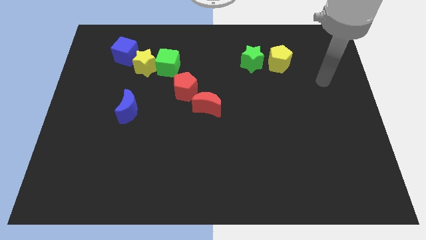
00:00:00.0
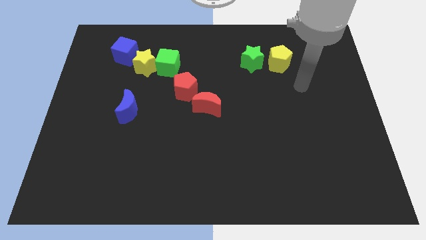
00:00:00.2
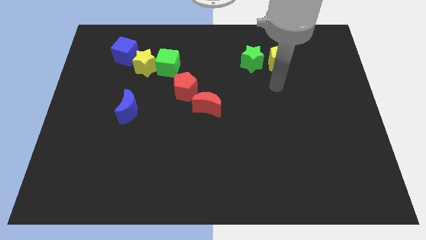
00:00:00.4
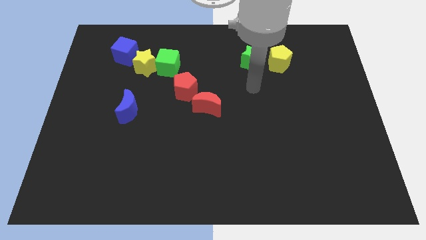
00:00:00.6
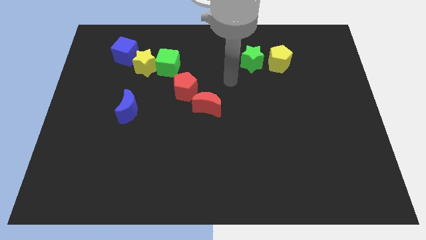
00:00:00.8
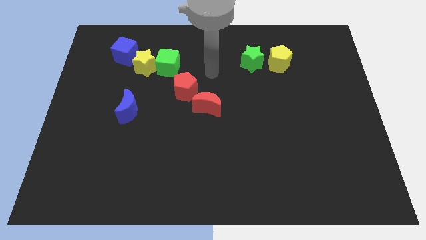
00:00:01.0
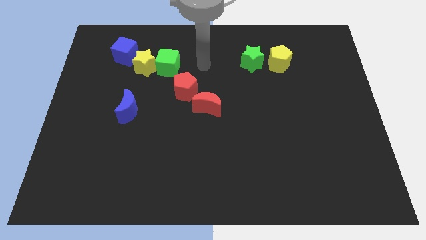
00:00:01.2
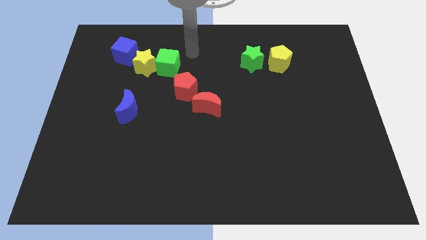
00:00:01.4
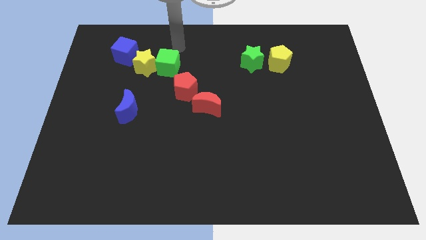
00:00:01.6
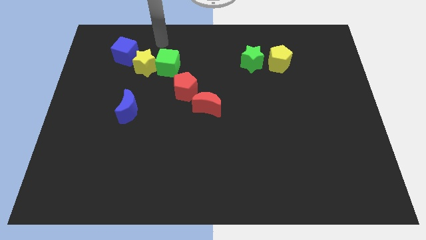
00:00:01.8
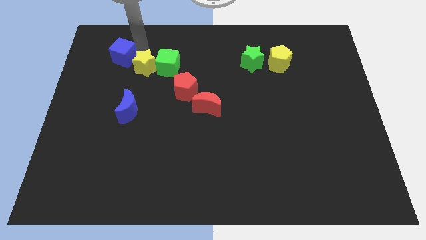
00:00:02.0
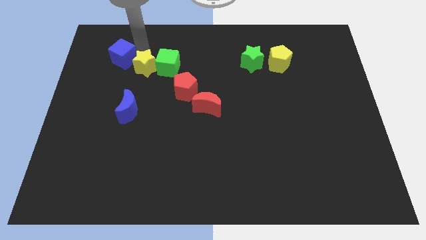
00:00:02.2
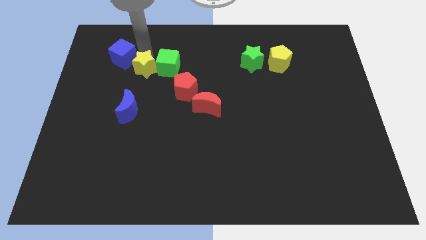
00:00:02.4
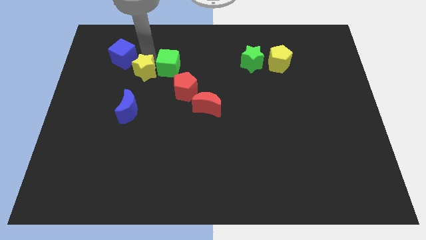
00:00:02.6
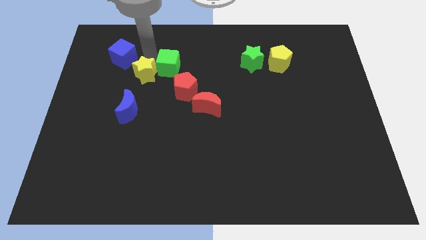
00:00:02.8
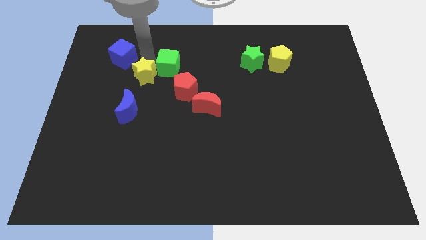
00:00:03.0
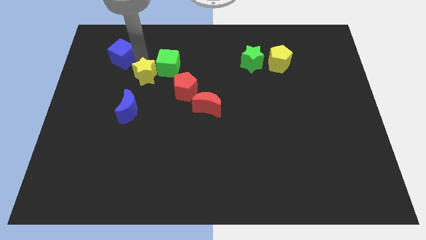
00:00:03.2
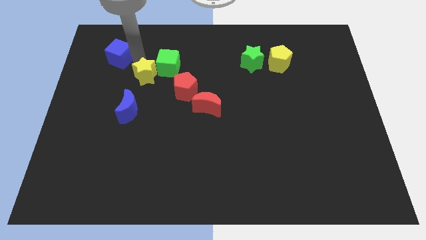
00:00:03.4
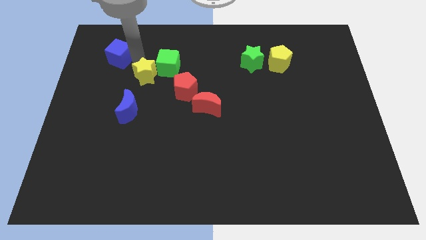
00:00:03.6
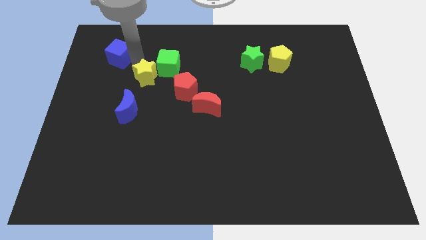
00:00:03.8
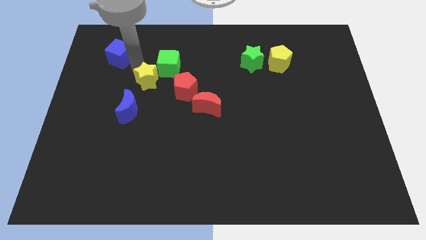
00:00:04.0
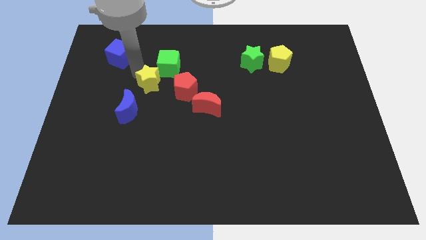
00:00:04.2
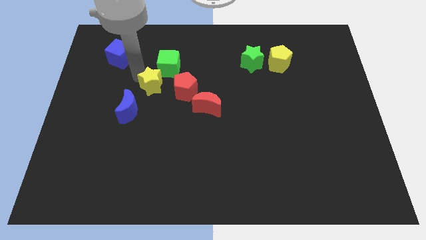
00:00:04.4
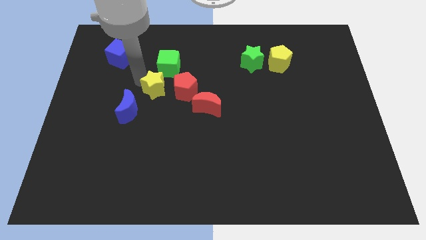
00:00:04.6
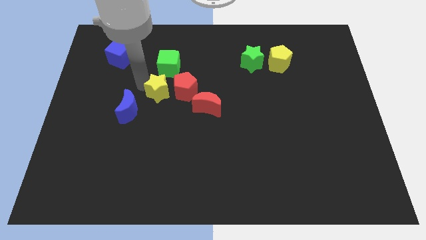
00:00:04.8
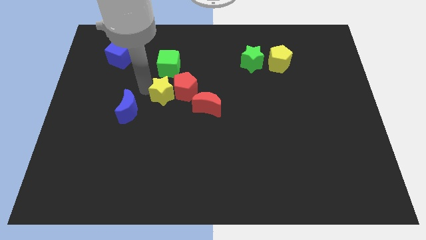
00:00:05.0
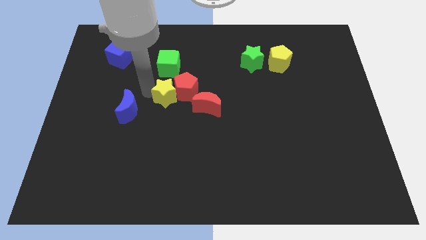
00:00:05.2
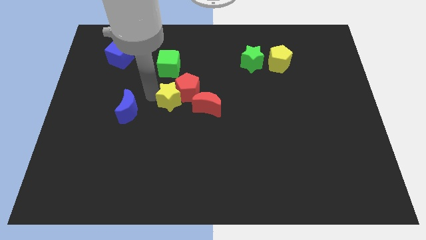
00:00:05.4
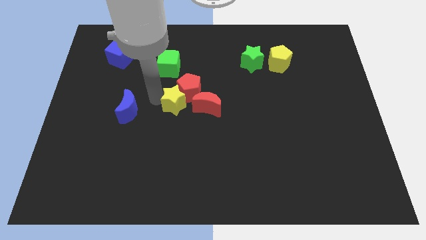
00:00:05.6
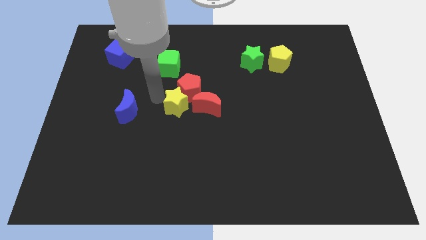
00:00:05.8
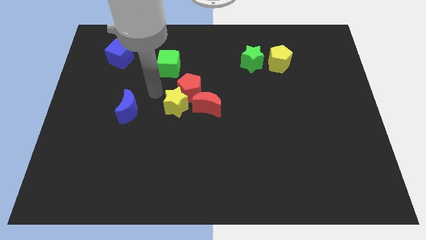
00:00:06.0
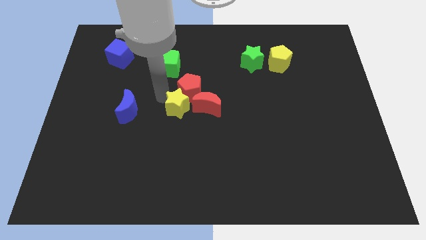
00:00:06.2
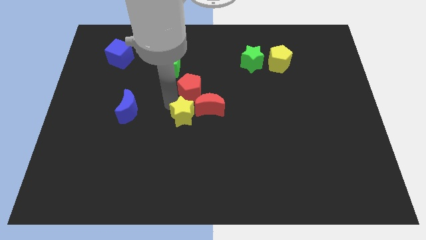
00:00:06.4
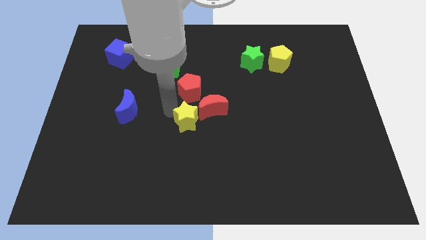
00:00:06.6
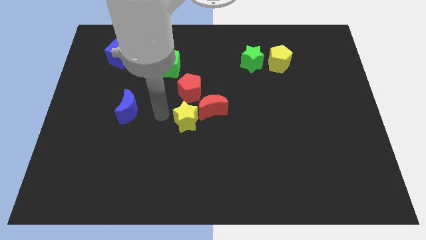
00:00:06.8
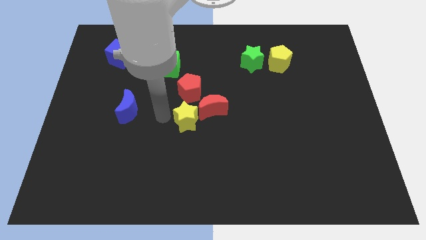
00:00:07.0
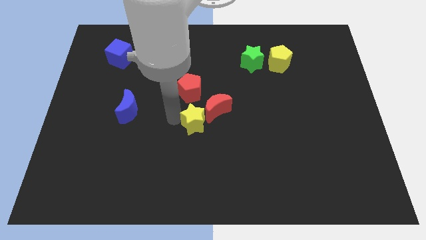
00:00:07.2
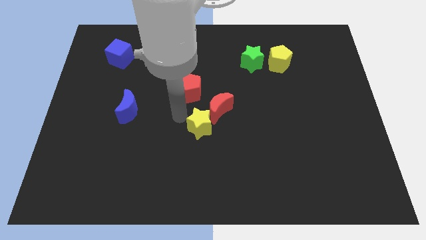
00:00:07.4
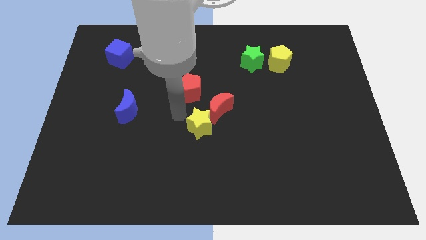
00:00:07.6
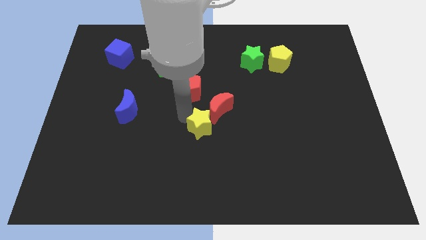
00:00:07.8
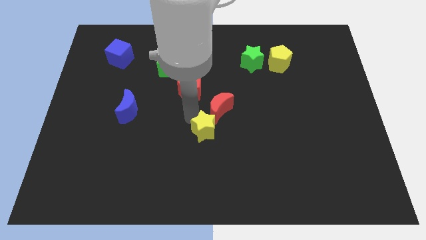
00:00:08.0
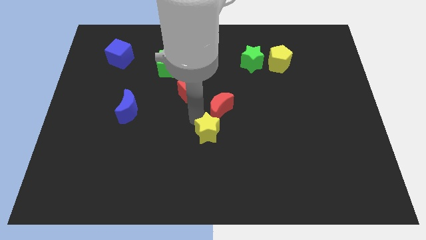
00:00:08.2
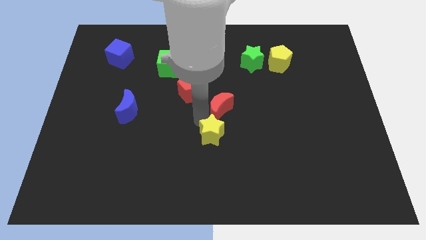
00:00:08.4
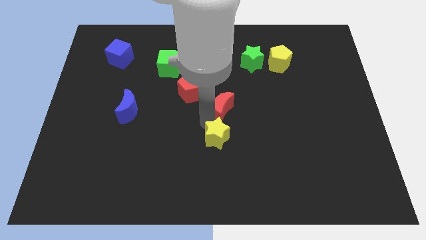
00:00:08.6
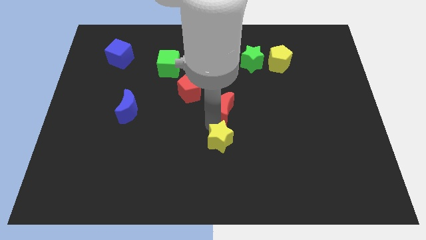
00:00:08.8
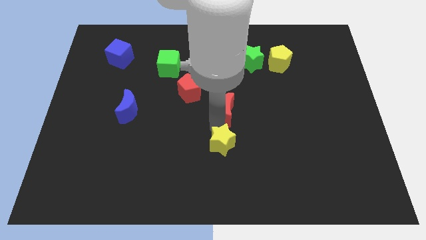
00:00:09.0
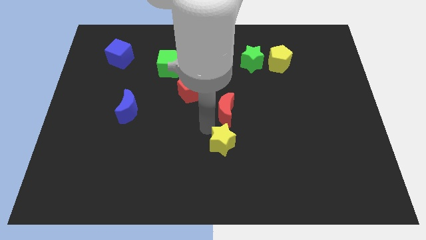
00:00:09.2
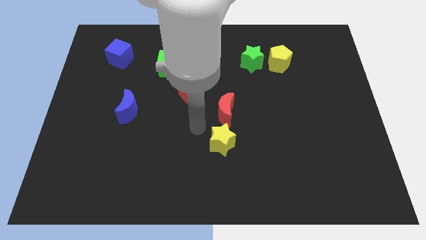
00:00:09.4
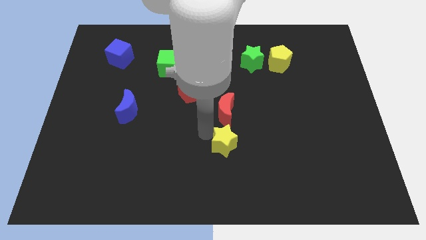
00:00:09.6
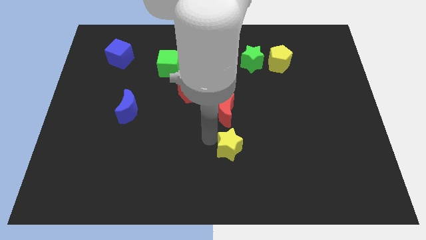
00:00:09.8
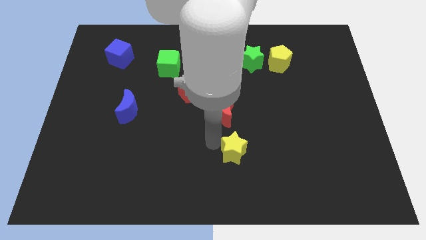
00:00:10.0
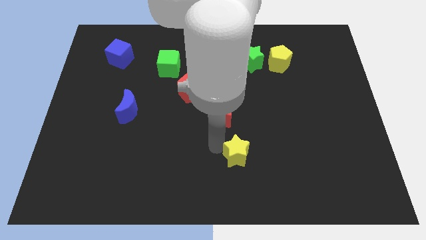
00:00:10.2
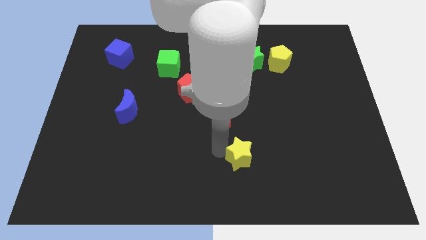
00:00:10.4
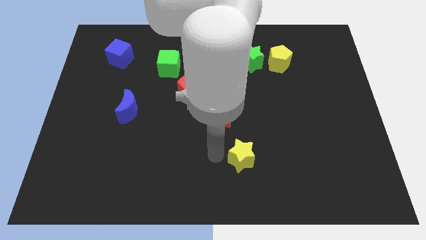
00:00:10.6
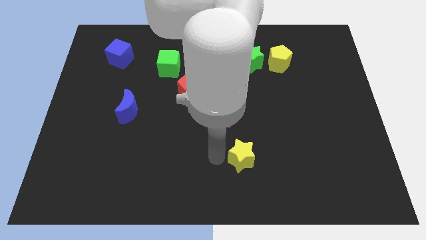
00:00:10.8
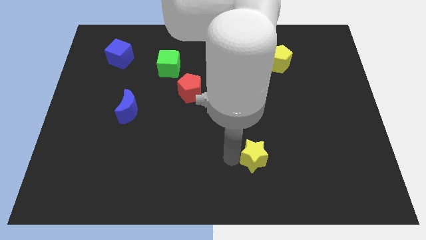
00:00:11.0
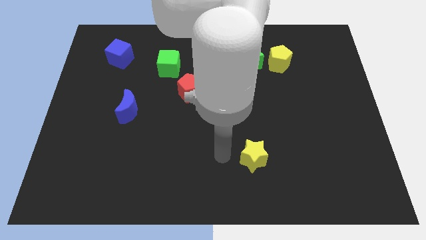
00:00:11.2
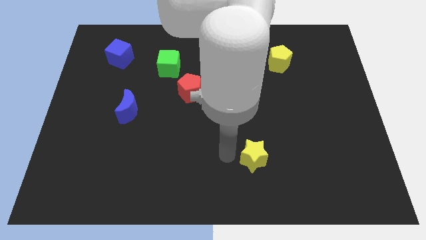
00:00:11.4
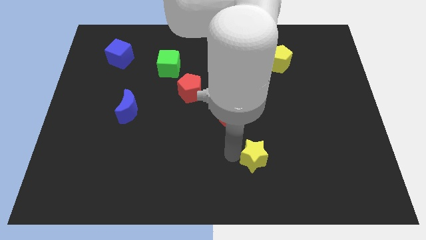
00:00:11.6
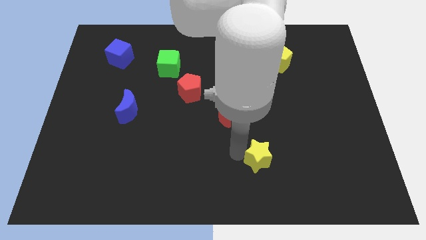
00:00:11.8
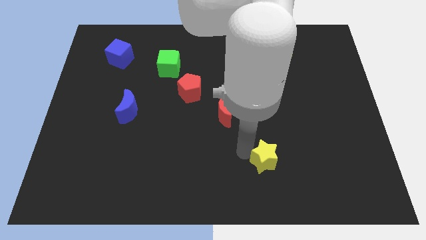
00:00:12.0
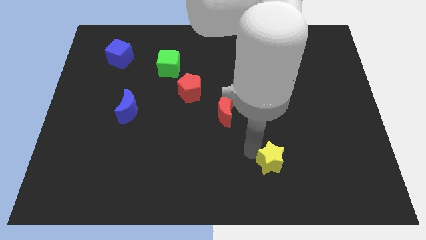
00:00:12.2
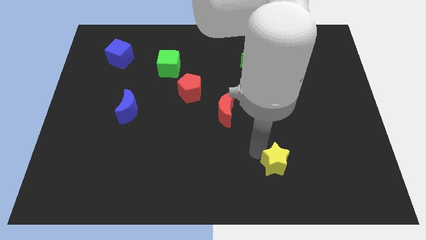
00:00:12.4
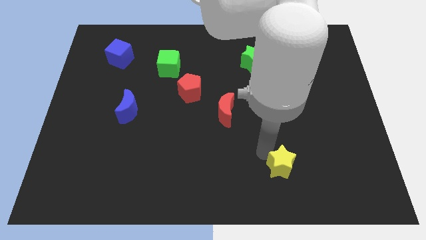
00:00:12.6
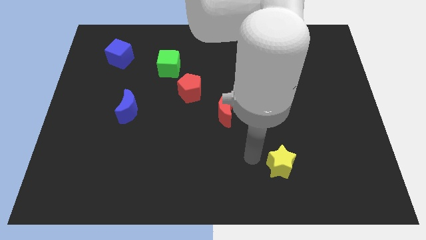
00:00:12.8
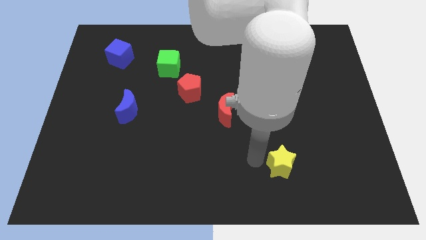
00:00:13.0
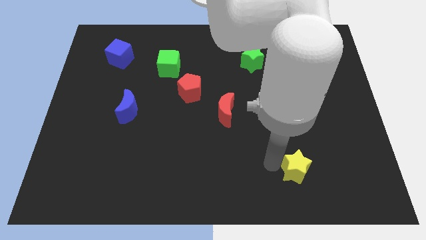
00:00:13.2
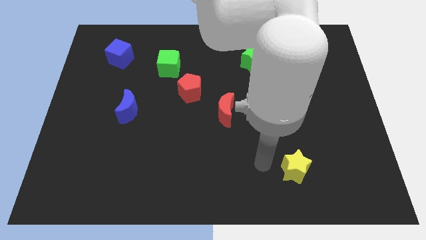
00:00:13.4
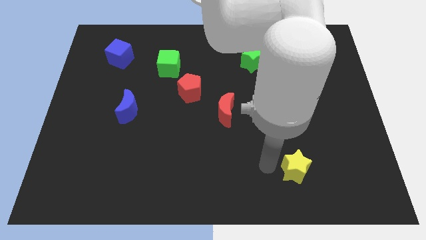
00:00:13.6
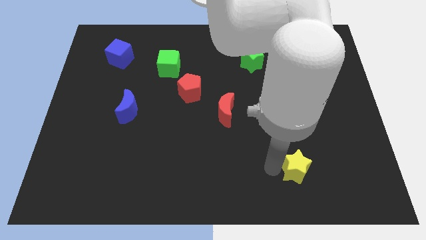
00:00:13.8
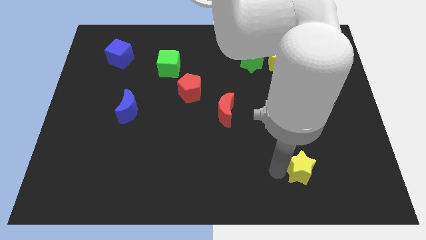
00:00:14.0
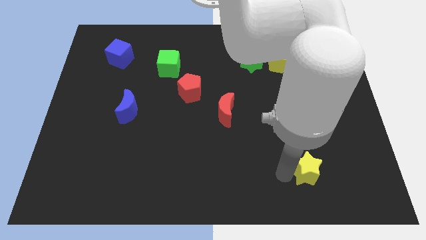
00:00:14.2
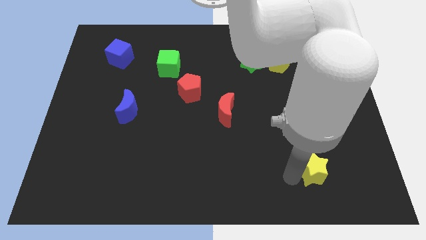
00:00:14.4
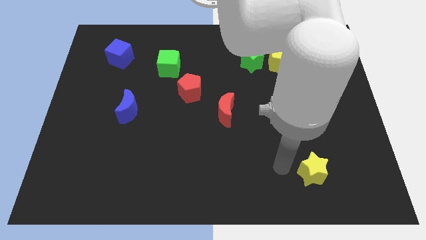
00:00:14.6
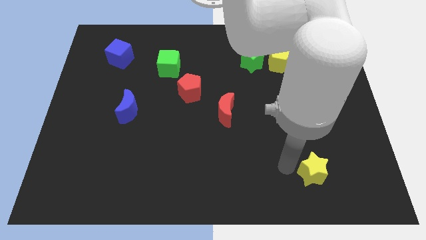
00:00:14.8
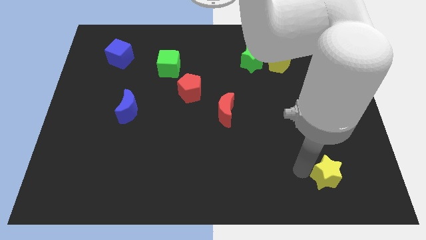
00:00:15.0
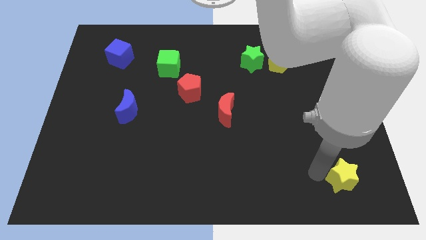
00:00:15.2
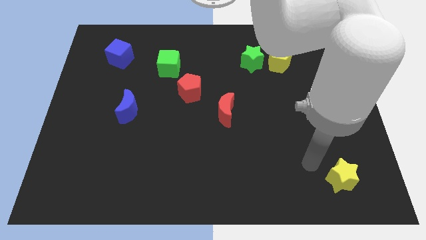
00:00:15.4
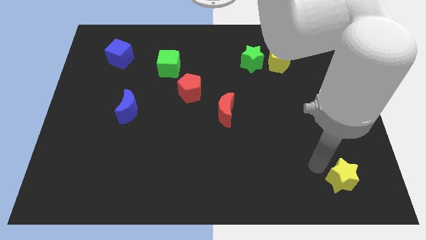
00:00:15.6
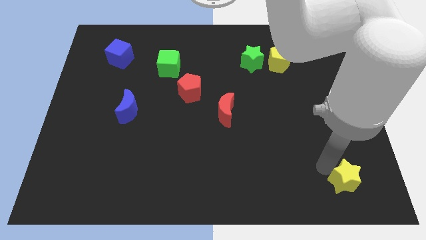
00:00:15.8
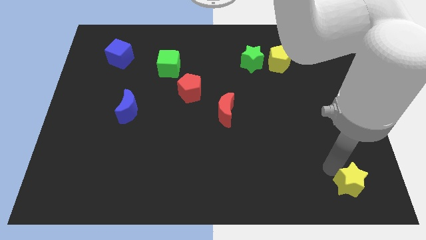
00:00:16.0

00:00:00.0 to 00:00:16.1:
move the yellow star to the bottom right
